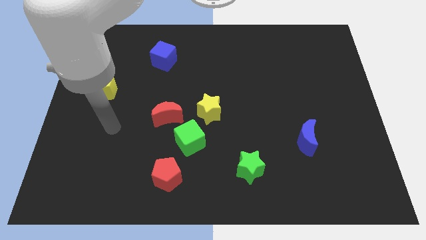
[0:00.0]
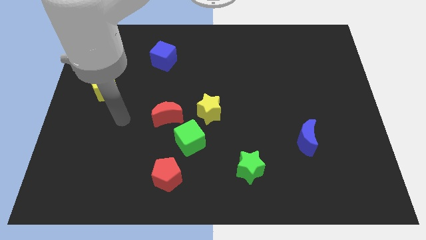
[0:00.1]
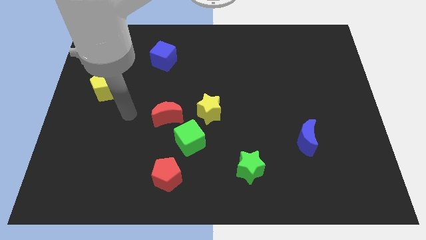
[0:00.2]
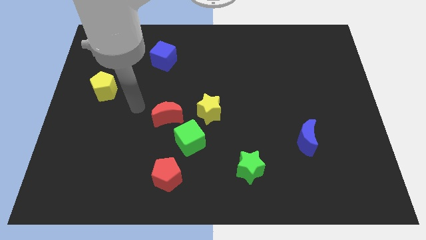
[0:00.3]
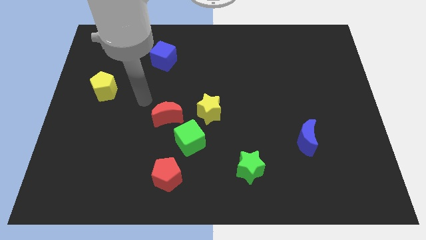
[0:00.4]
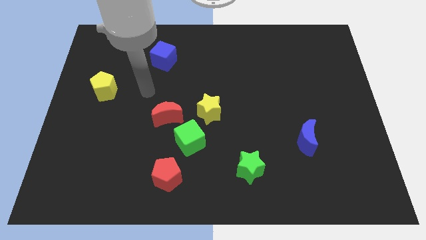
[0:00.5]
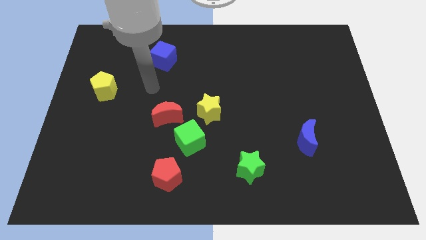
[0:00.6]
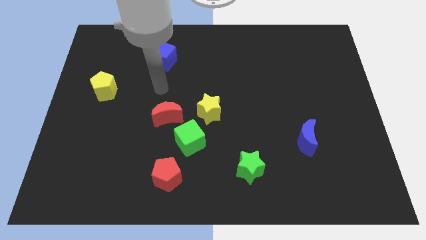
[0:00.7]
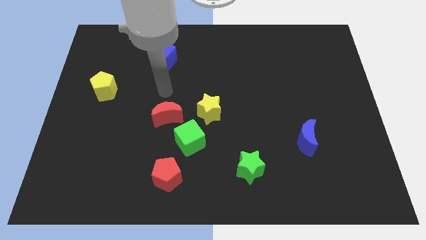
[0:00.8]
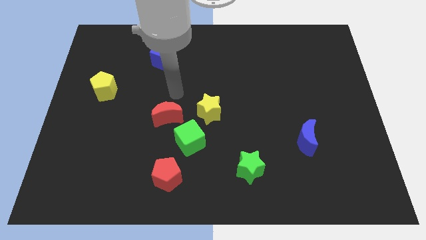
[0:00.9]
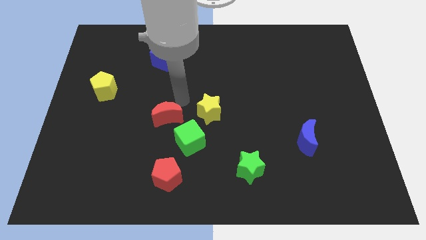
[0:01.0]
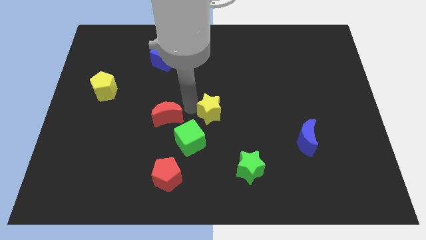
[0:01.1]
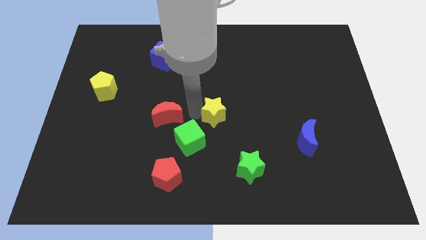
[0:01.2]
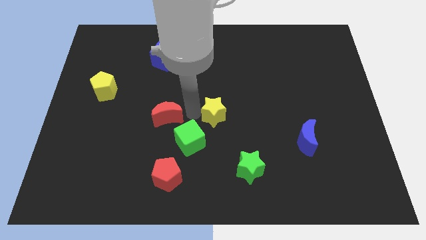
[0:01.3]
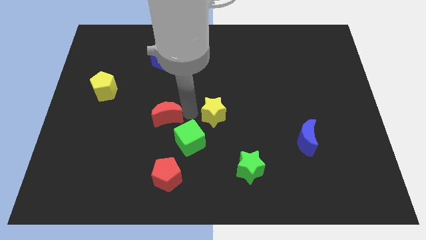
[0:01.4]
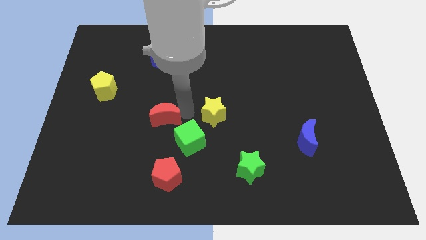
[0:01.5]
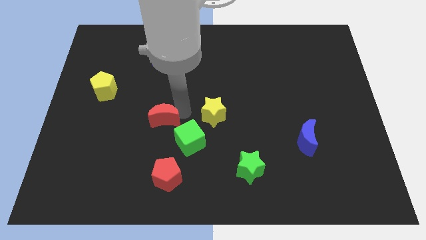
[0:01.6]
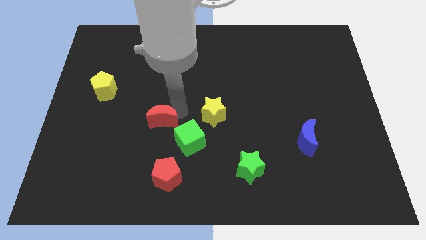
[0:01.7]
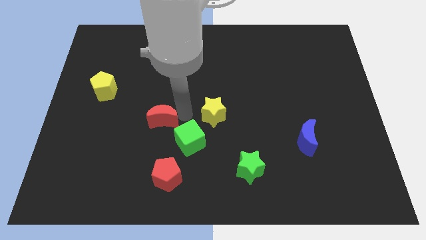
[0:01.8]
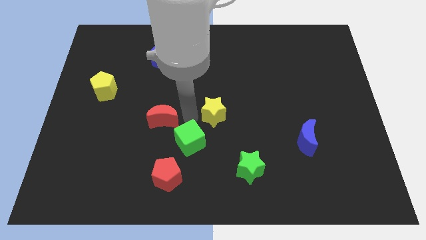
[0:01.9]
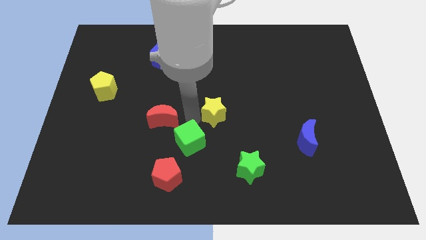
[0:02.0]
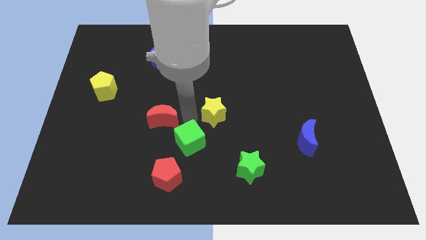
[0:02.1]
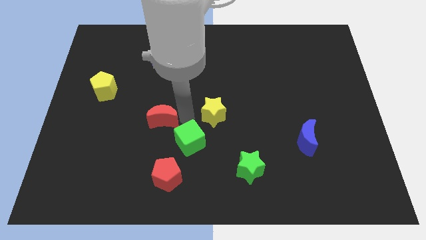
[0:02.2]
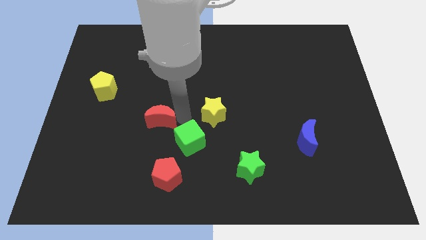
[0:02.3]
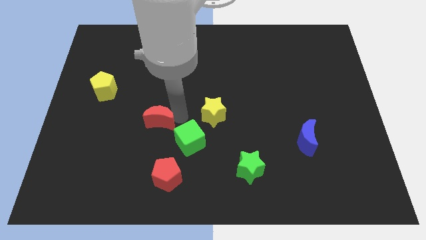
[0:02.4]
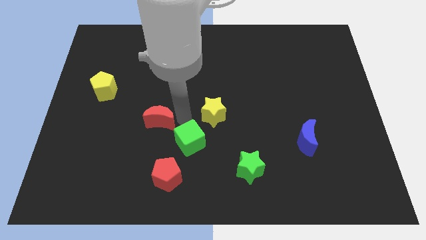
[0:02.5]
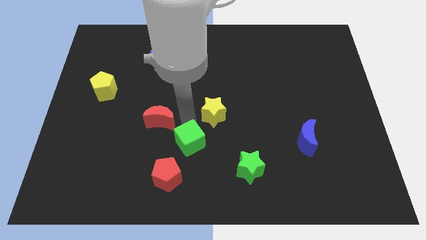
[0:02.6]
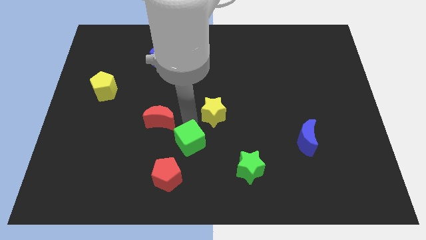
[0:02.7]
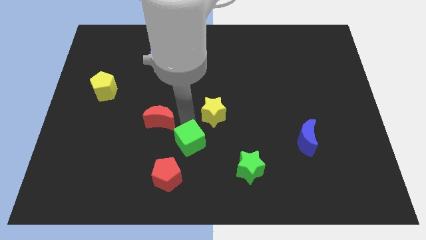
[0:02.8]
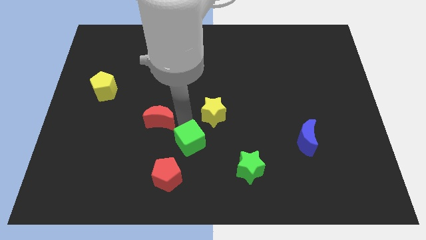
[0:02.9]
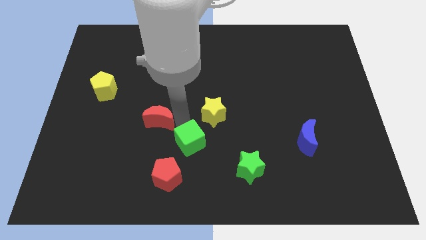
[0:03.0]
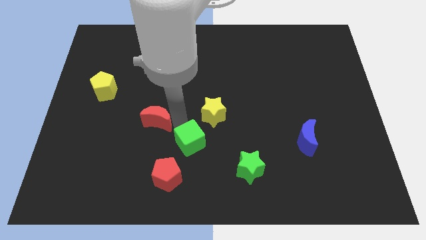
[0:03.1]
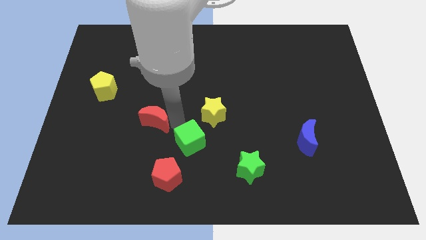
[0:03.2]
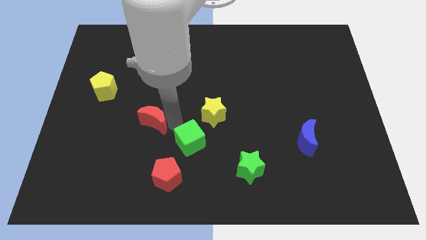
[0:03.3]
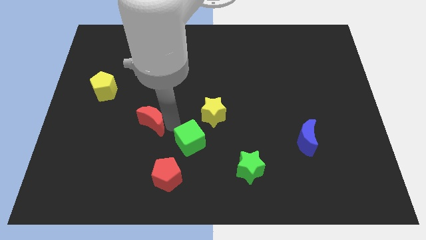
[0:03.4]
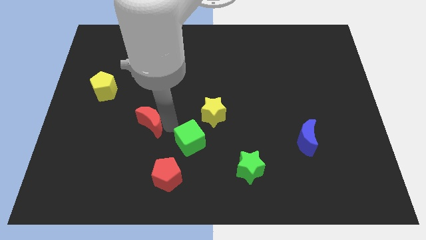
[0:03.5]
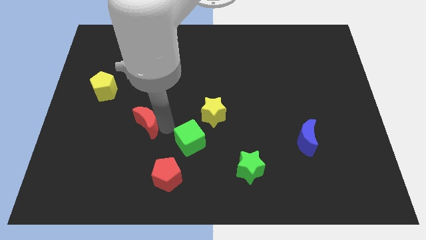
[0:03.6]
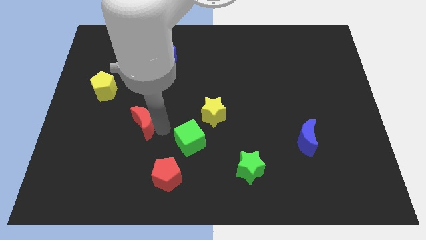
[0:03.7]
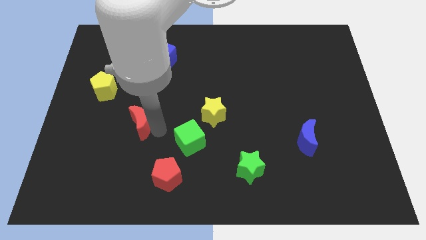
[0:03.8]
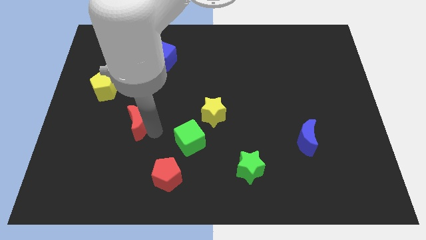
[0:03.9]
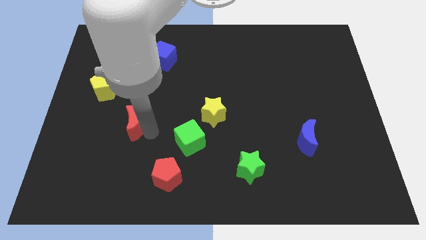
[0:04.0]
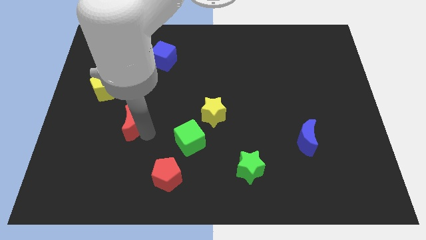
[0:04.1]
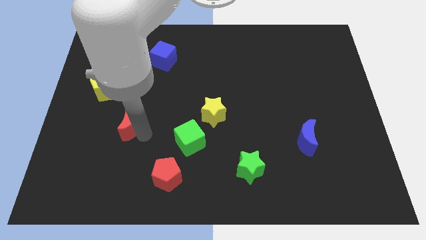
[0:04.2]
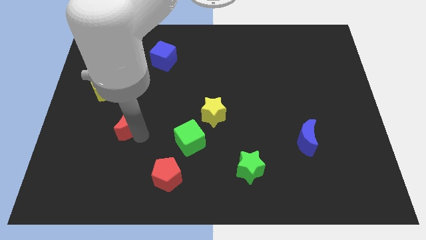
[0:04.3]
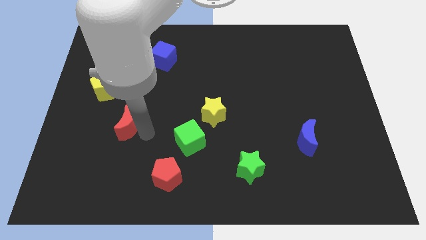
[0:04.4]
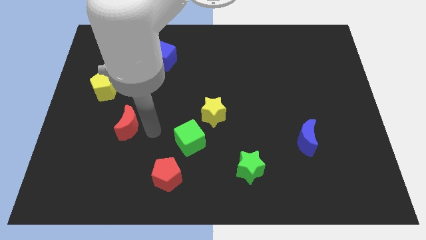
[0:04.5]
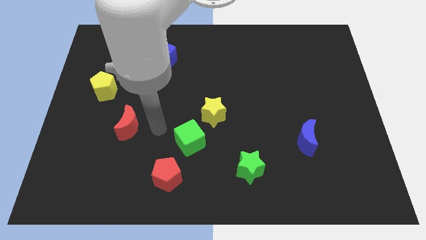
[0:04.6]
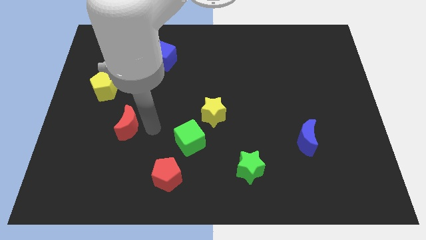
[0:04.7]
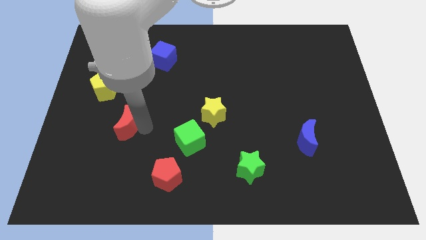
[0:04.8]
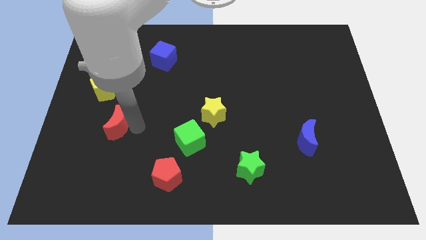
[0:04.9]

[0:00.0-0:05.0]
move the red moon to the bottom side of the yellow pentagon

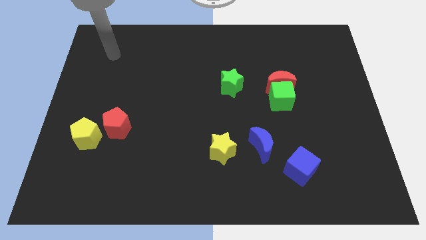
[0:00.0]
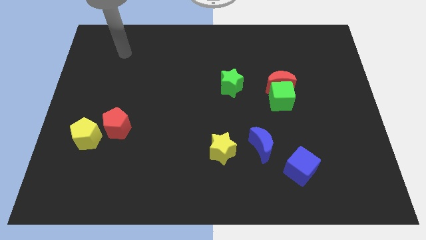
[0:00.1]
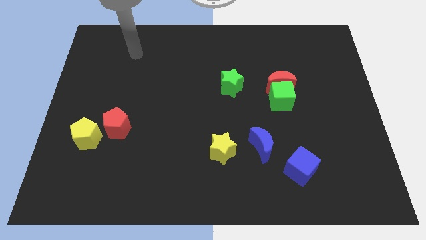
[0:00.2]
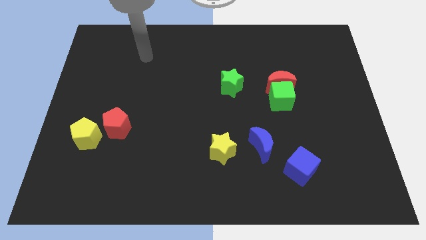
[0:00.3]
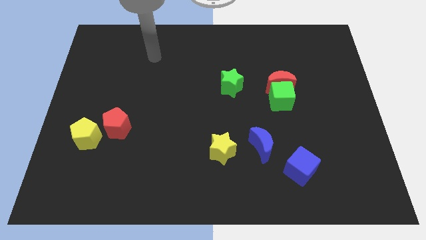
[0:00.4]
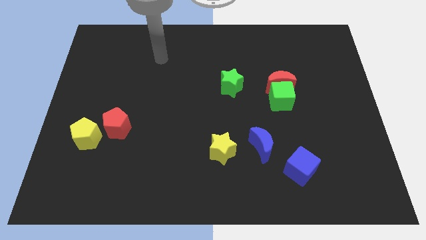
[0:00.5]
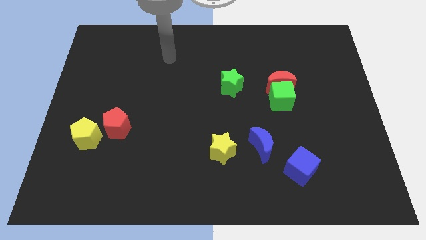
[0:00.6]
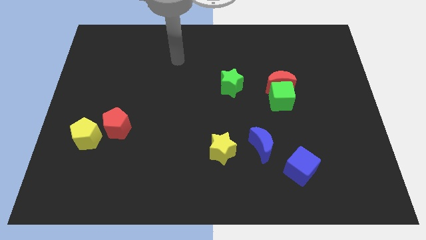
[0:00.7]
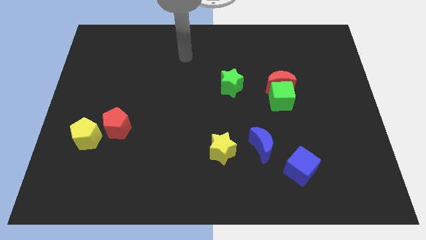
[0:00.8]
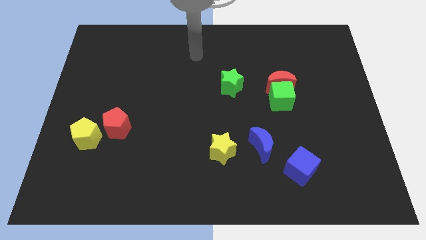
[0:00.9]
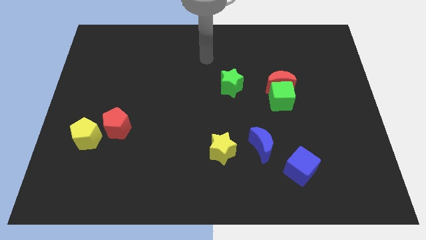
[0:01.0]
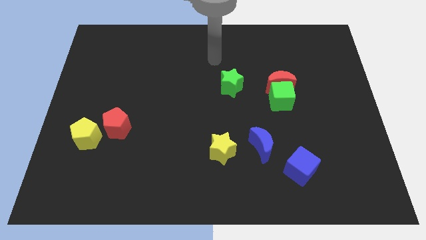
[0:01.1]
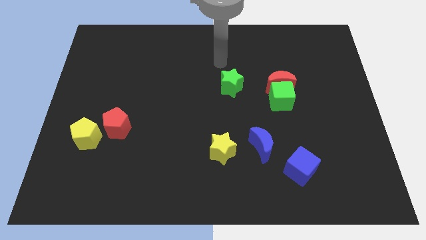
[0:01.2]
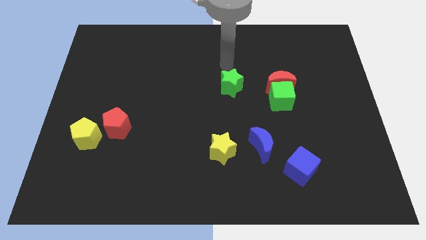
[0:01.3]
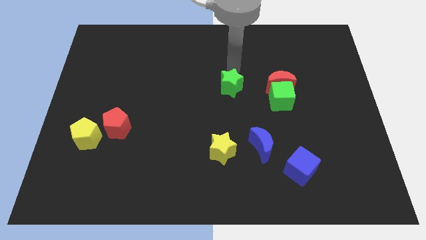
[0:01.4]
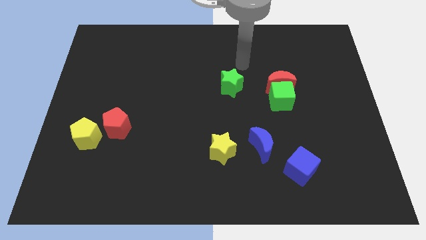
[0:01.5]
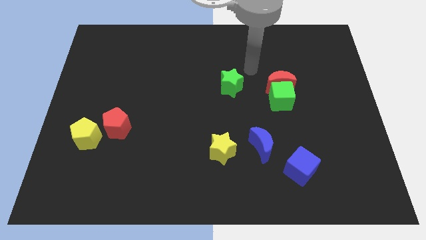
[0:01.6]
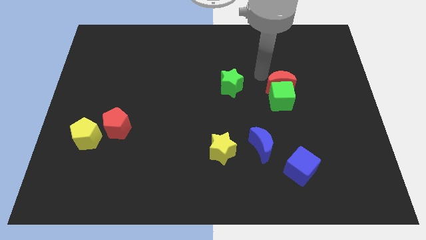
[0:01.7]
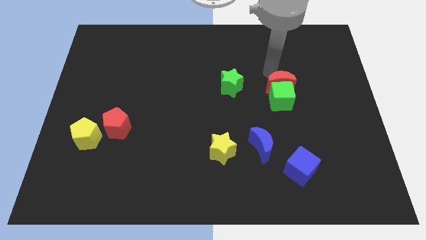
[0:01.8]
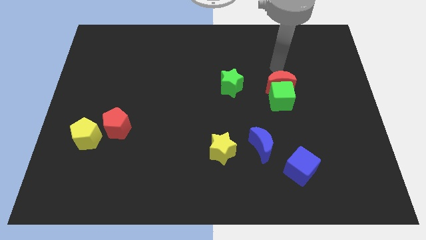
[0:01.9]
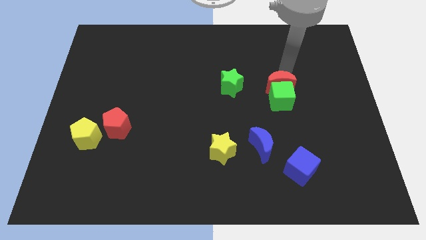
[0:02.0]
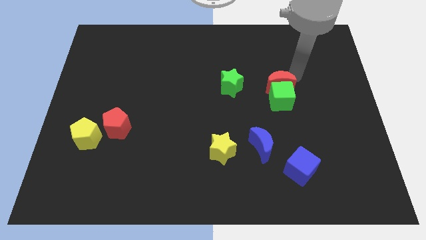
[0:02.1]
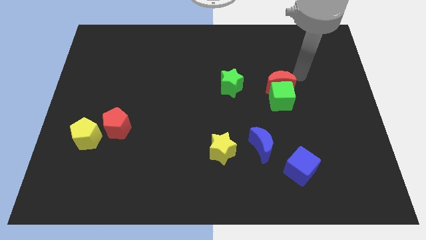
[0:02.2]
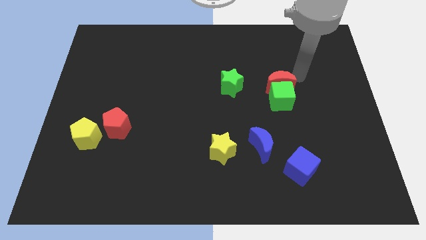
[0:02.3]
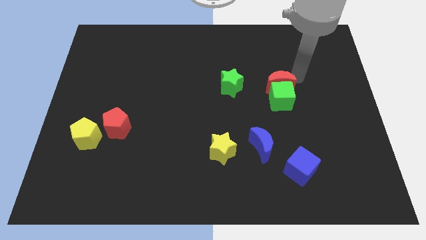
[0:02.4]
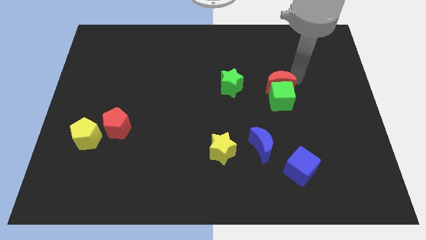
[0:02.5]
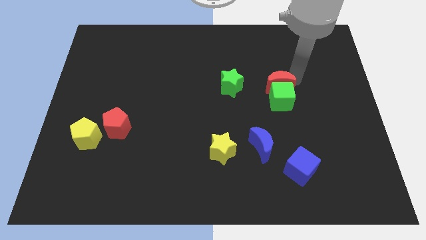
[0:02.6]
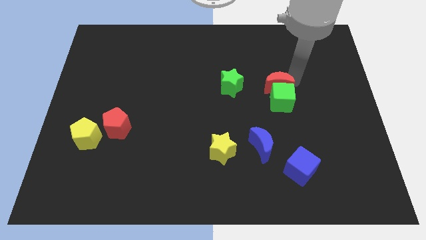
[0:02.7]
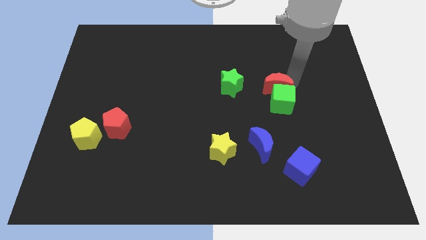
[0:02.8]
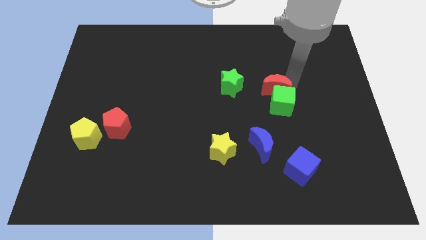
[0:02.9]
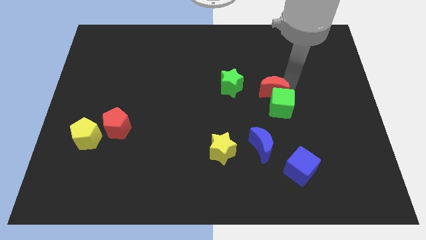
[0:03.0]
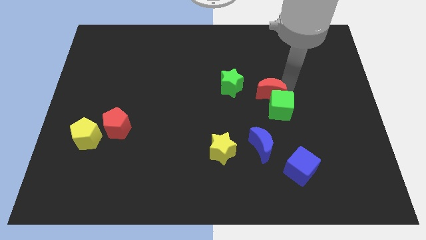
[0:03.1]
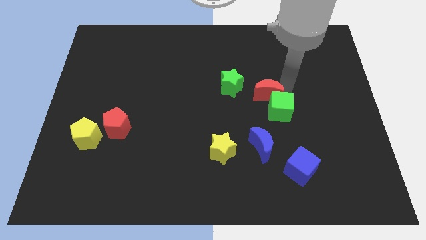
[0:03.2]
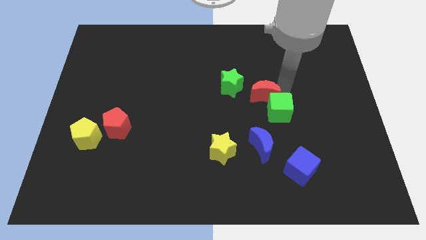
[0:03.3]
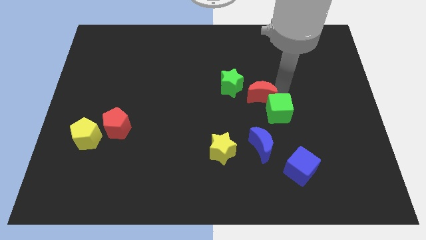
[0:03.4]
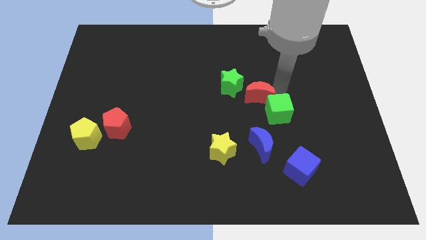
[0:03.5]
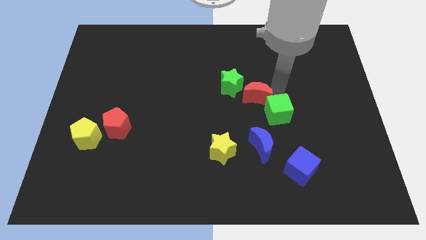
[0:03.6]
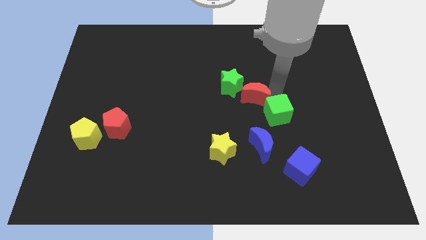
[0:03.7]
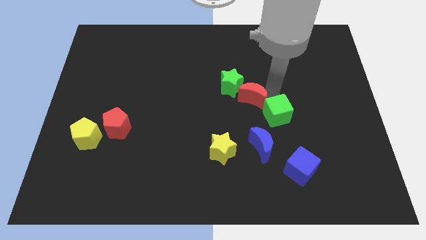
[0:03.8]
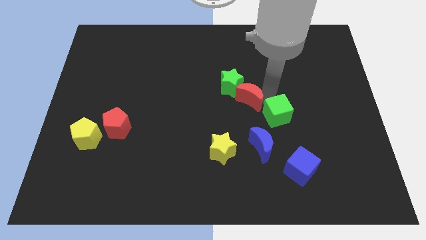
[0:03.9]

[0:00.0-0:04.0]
slide the red moon to the bottom side of the green star
